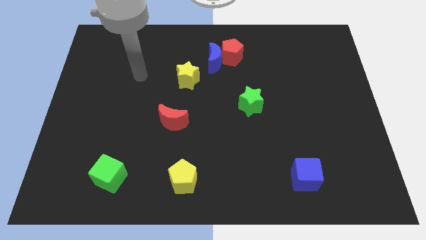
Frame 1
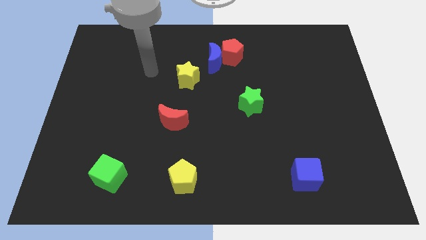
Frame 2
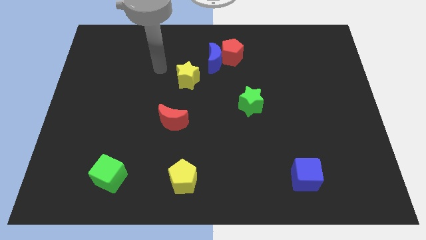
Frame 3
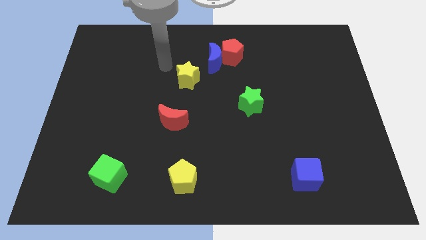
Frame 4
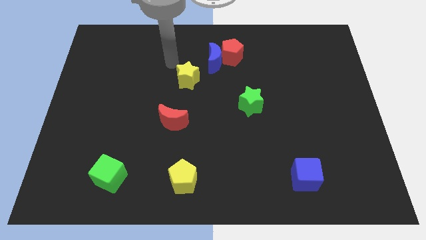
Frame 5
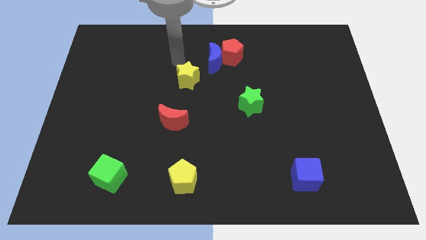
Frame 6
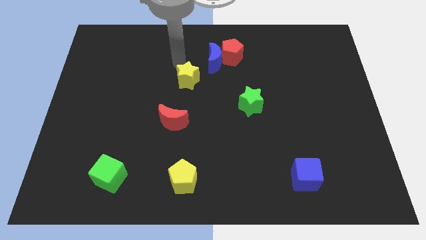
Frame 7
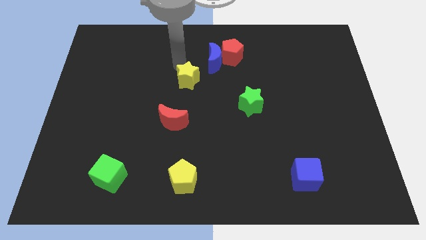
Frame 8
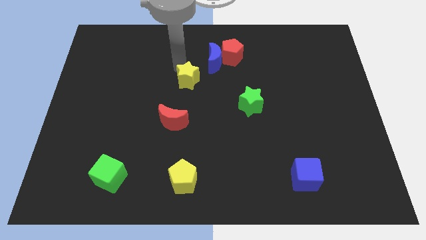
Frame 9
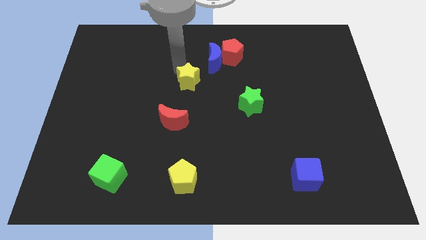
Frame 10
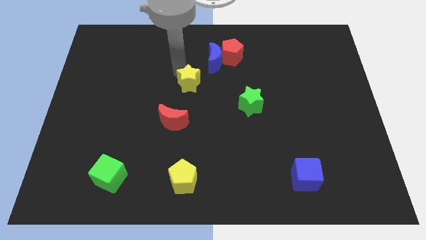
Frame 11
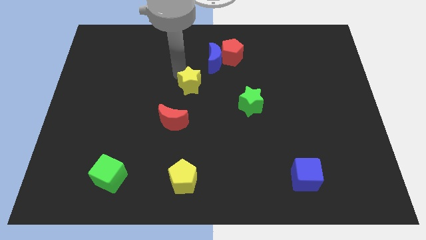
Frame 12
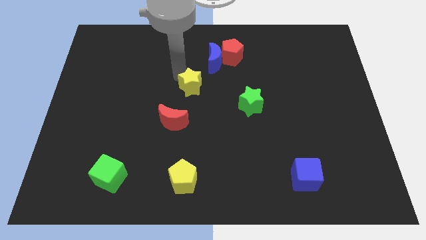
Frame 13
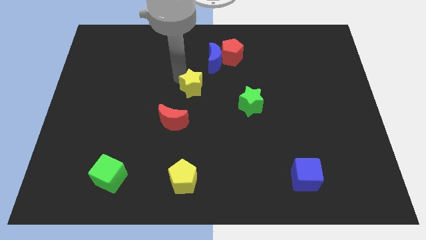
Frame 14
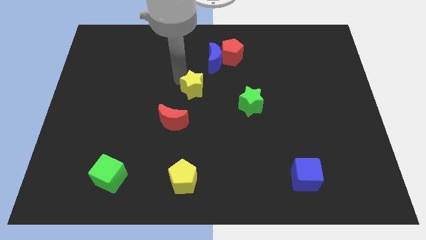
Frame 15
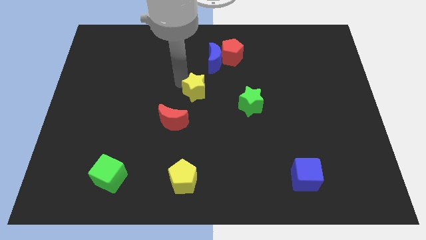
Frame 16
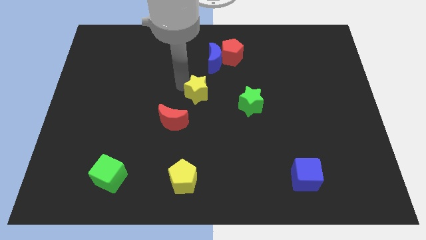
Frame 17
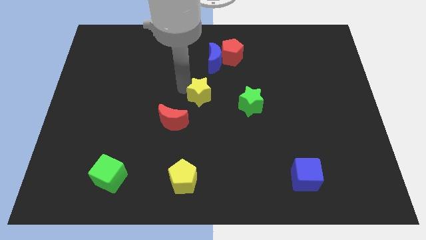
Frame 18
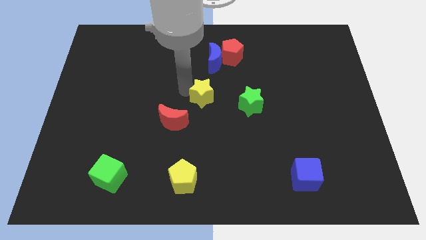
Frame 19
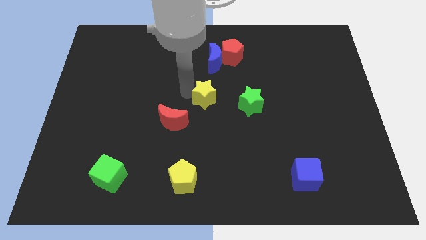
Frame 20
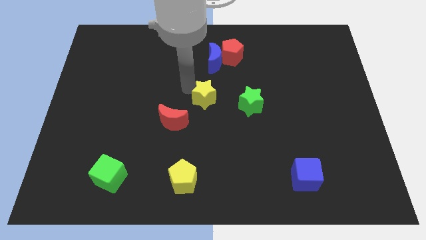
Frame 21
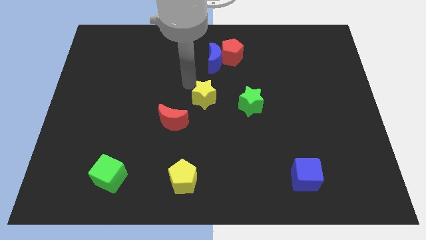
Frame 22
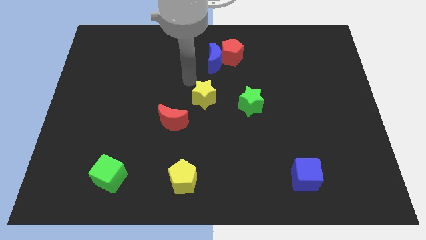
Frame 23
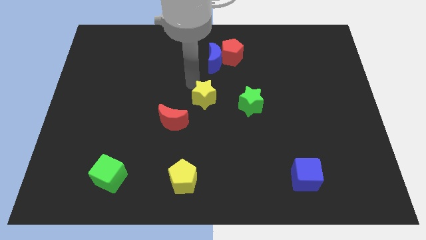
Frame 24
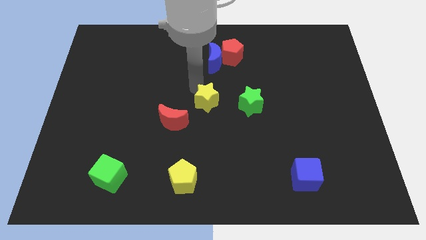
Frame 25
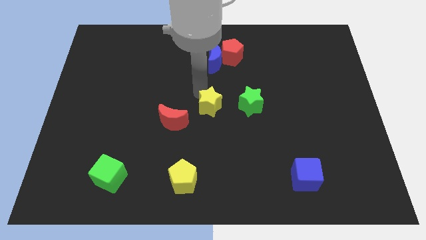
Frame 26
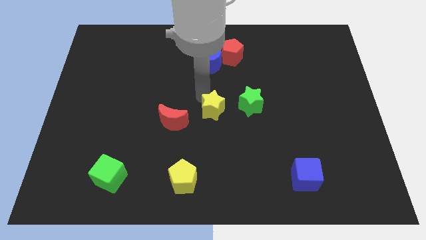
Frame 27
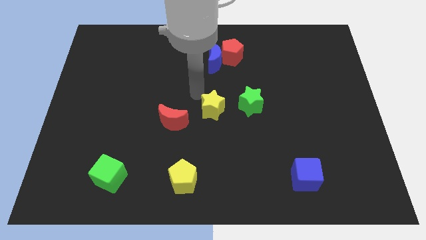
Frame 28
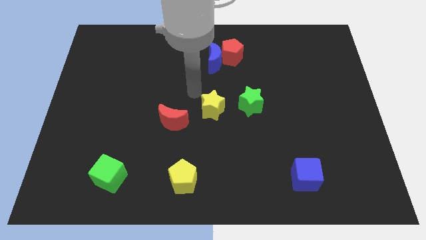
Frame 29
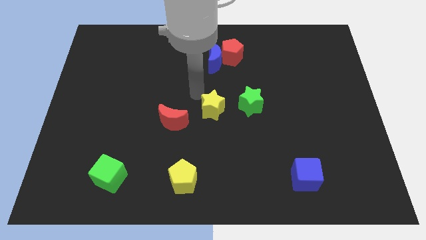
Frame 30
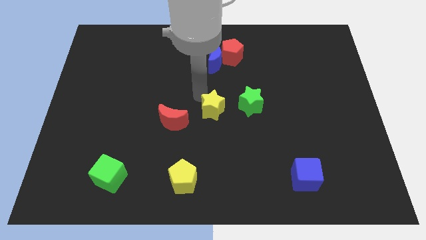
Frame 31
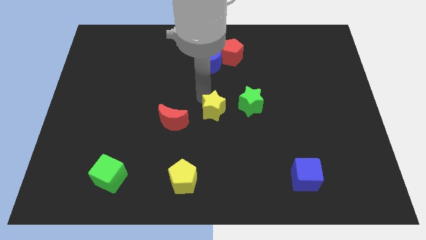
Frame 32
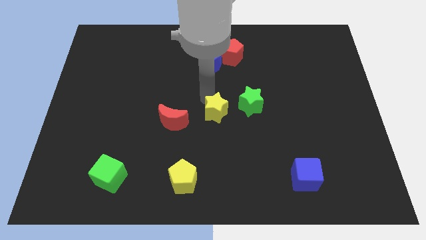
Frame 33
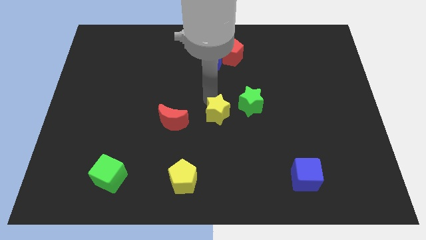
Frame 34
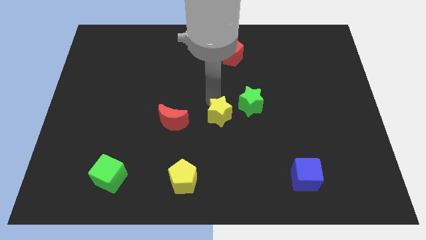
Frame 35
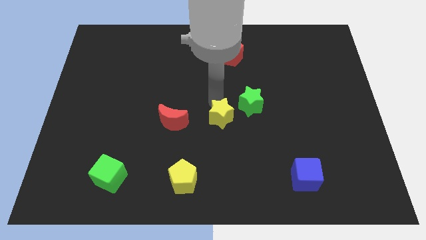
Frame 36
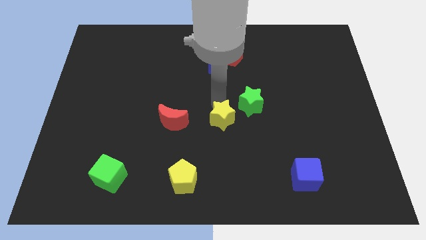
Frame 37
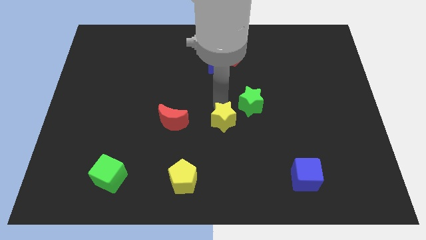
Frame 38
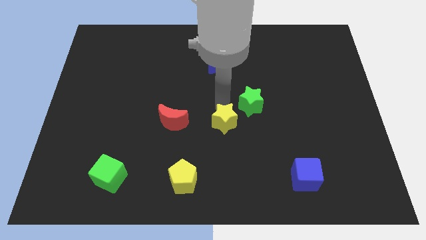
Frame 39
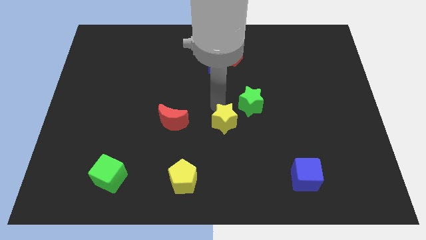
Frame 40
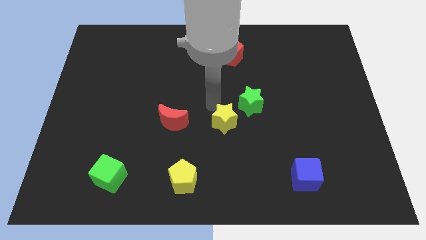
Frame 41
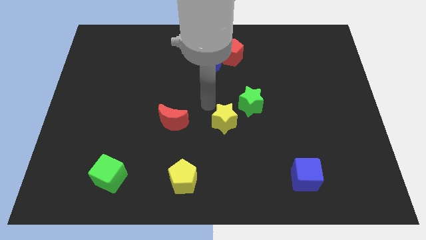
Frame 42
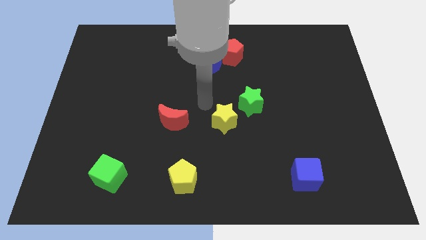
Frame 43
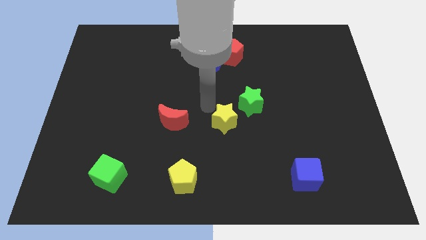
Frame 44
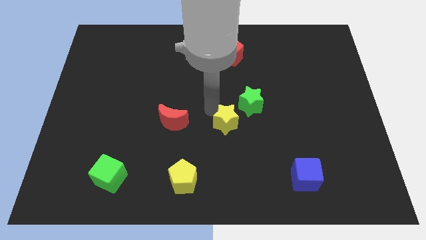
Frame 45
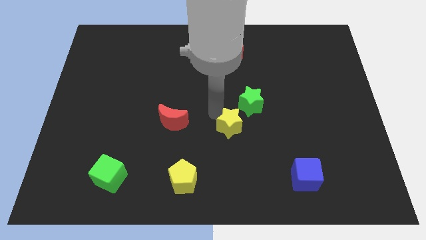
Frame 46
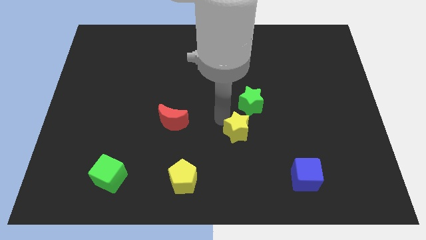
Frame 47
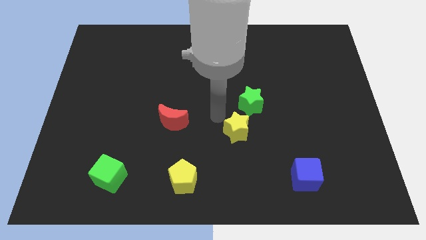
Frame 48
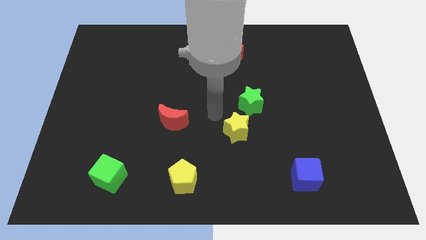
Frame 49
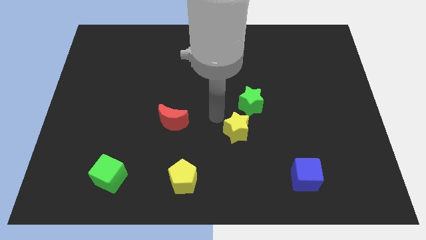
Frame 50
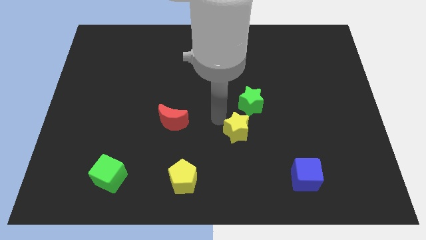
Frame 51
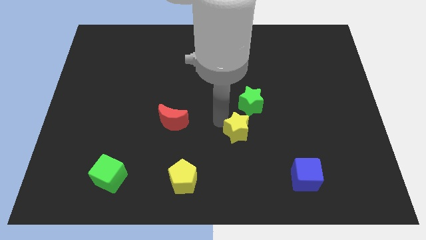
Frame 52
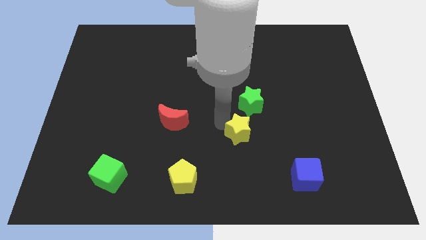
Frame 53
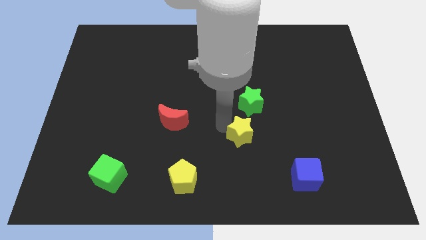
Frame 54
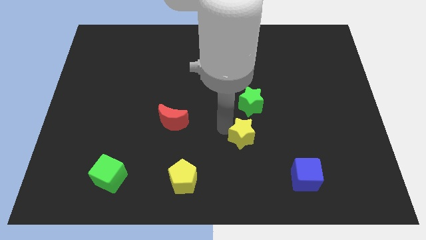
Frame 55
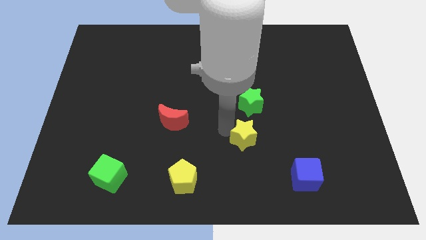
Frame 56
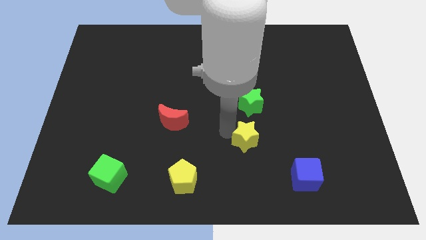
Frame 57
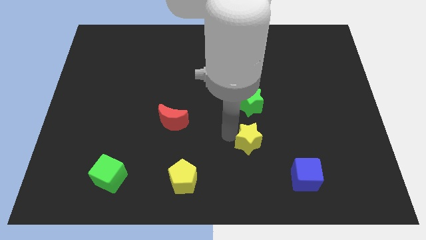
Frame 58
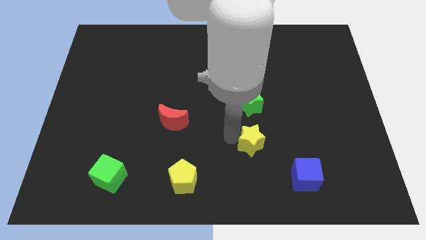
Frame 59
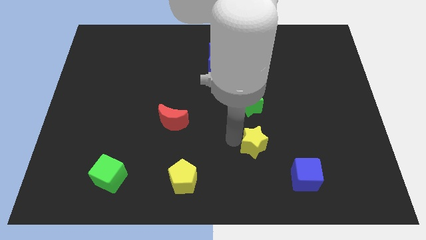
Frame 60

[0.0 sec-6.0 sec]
slide the yellow star to the top left side of the blue cube
